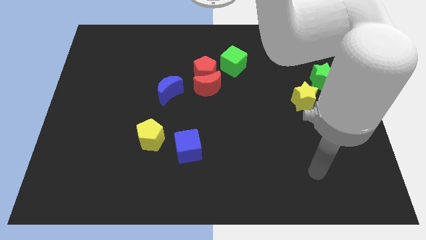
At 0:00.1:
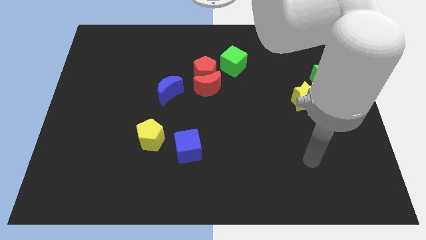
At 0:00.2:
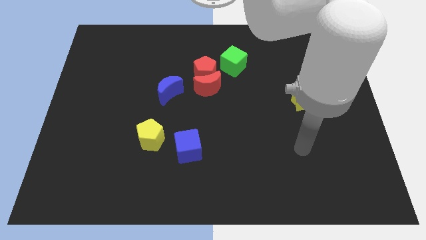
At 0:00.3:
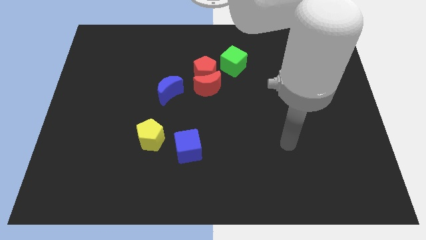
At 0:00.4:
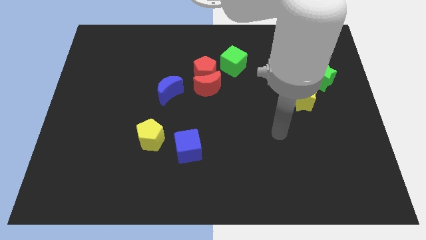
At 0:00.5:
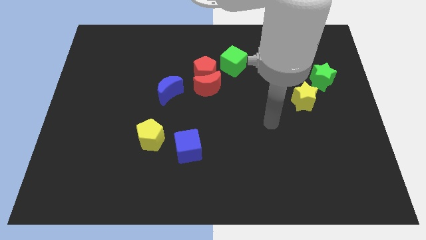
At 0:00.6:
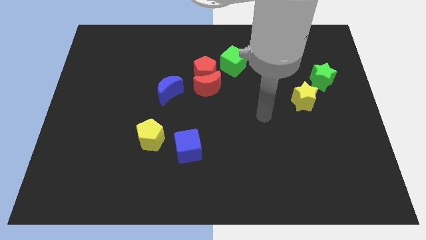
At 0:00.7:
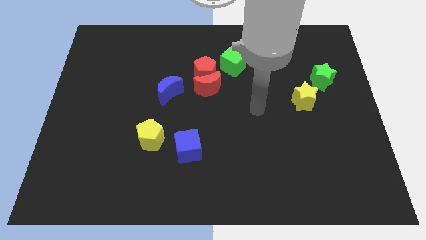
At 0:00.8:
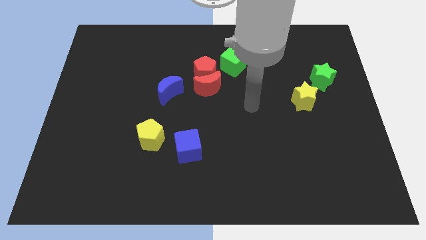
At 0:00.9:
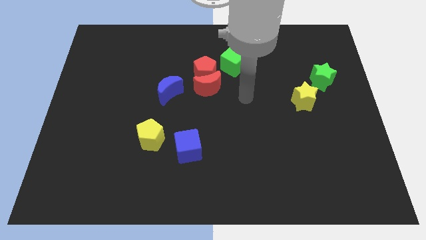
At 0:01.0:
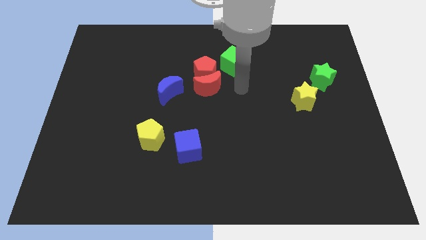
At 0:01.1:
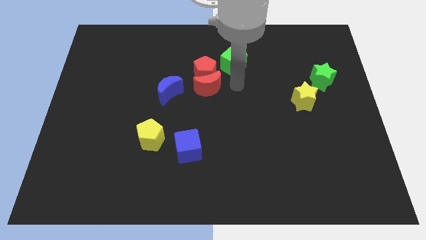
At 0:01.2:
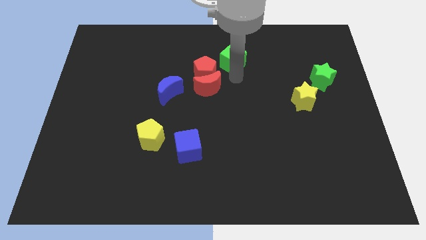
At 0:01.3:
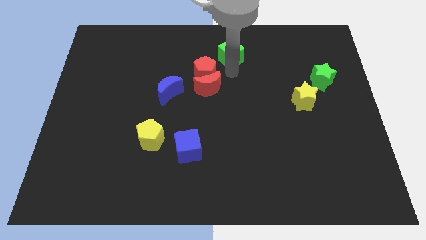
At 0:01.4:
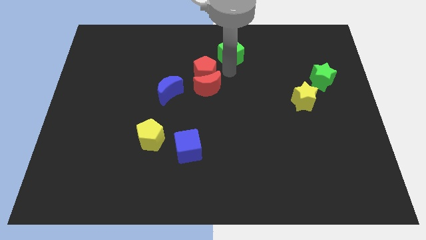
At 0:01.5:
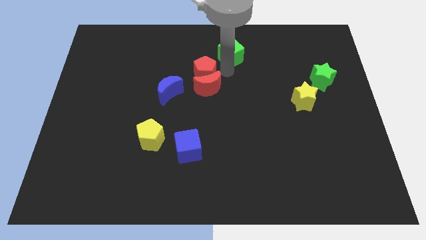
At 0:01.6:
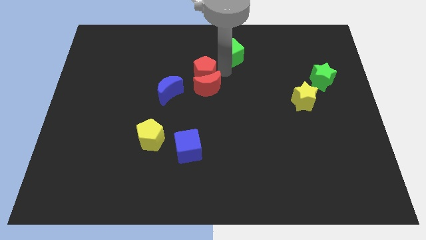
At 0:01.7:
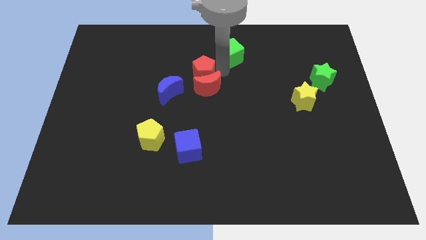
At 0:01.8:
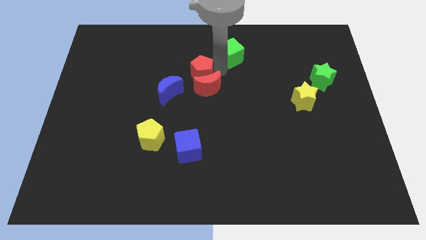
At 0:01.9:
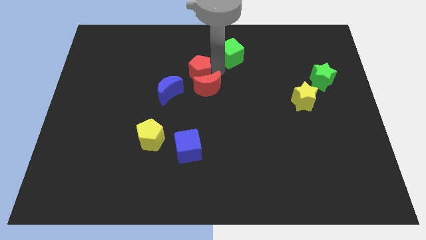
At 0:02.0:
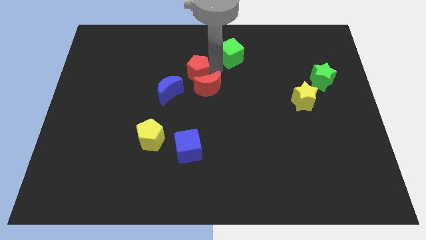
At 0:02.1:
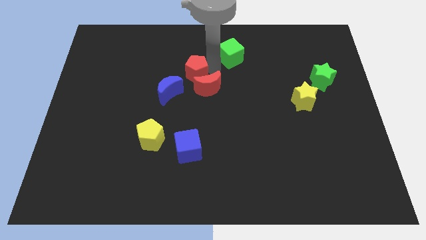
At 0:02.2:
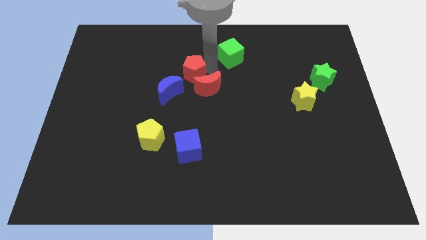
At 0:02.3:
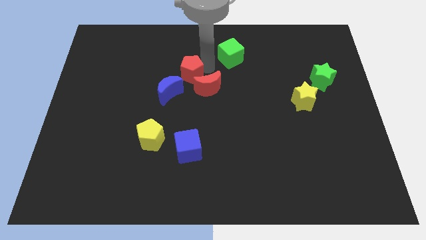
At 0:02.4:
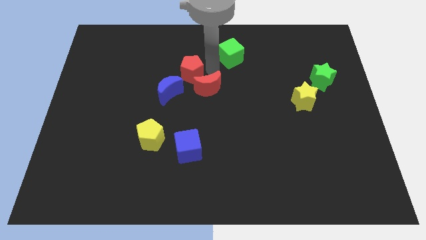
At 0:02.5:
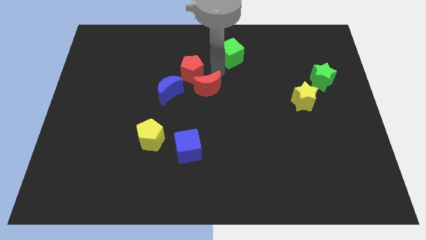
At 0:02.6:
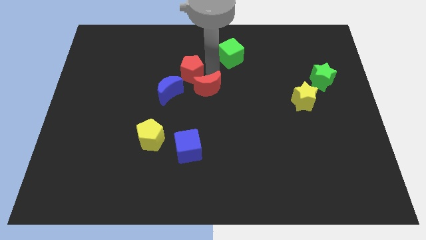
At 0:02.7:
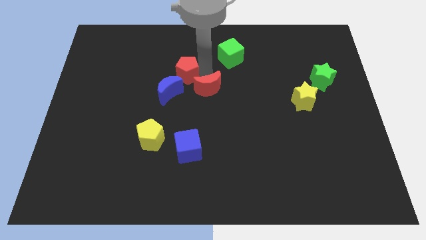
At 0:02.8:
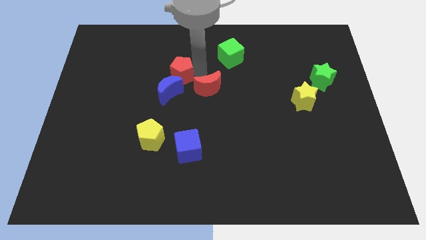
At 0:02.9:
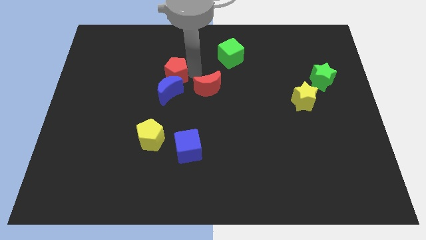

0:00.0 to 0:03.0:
pull the red pentagon apart from the red moon and green cube

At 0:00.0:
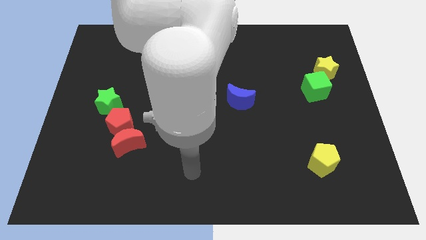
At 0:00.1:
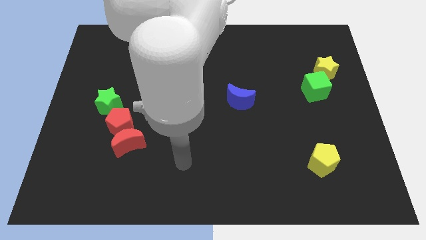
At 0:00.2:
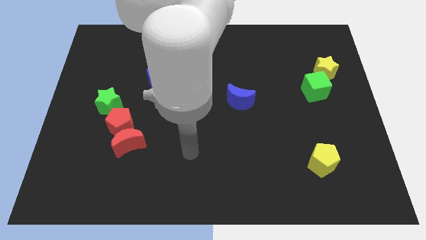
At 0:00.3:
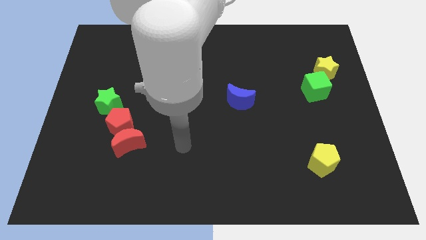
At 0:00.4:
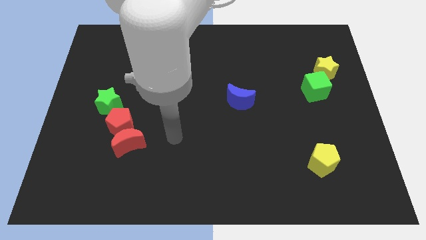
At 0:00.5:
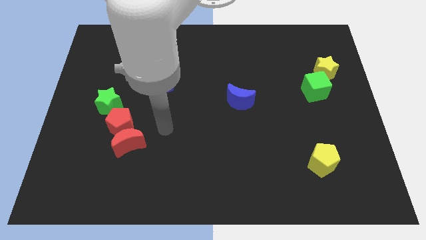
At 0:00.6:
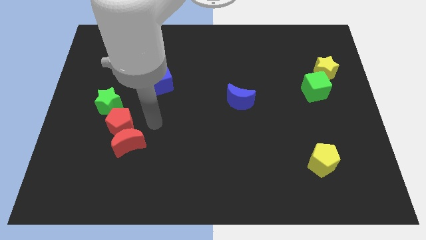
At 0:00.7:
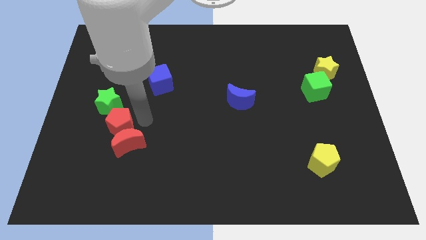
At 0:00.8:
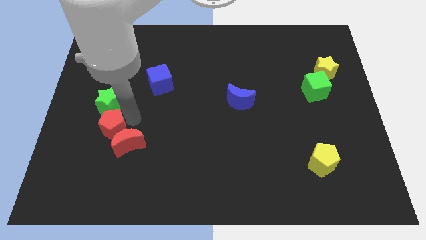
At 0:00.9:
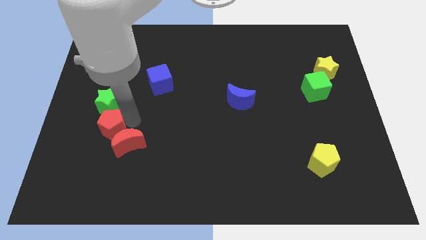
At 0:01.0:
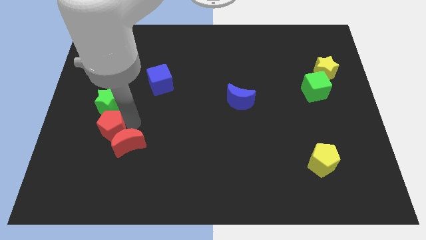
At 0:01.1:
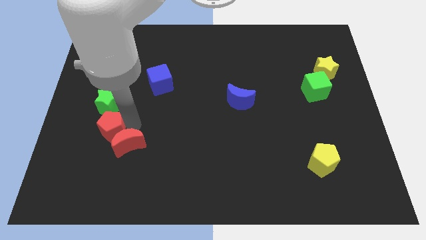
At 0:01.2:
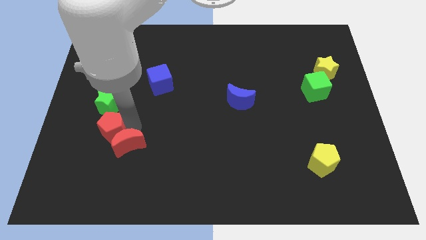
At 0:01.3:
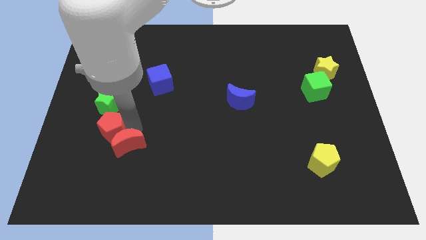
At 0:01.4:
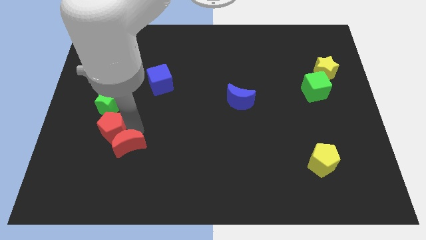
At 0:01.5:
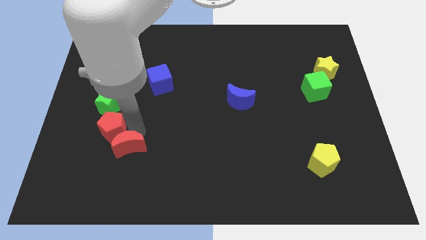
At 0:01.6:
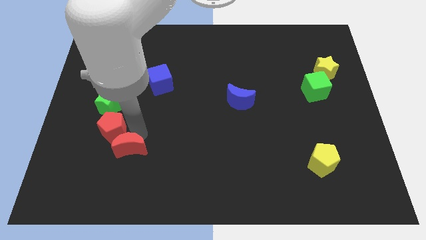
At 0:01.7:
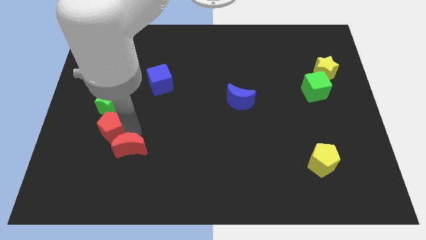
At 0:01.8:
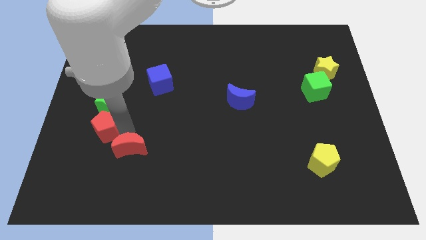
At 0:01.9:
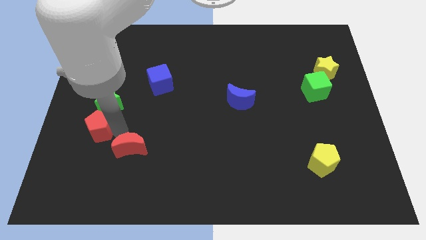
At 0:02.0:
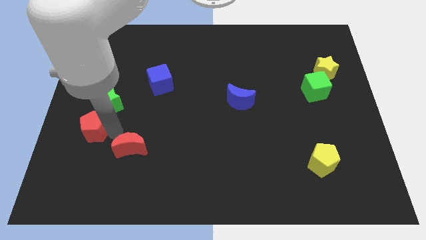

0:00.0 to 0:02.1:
separate the red moon from the red pentagon

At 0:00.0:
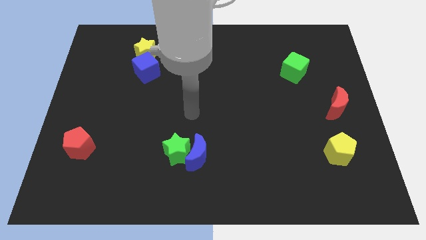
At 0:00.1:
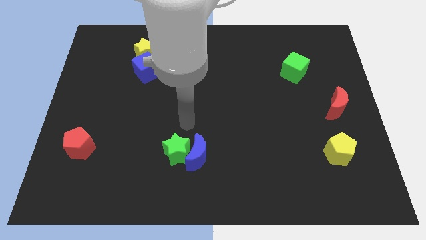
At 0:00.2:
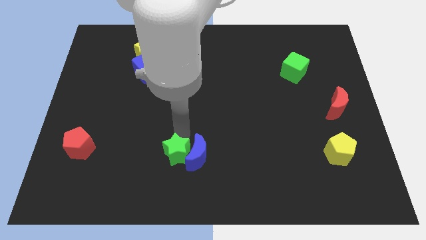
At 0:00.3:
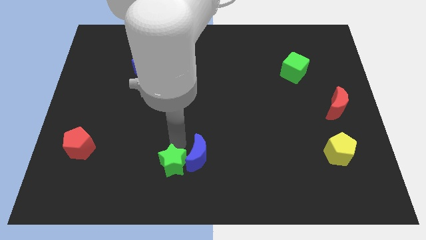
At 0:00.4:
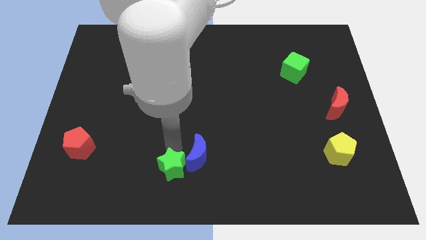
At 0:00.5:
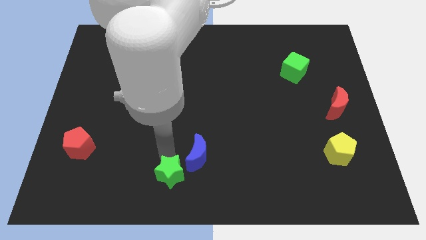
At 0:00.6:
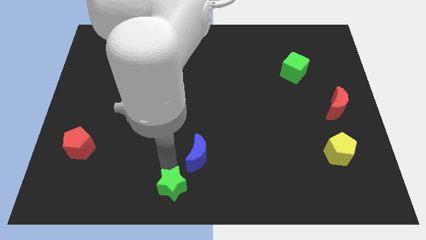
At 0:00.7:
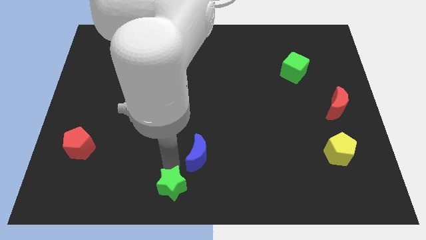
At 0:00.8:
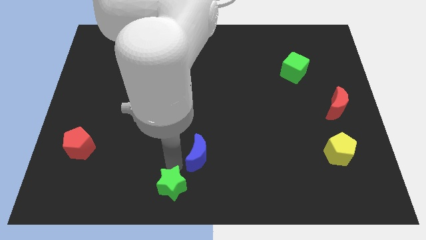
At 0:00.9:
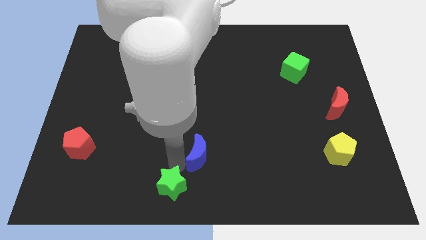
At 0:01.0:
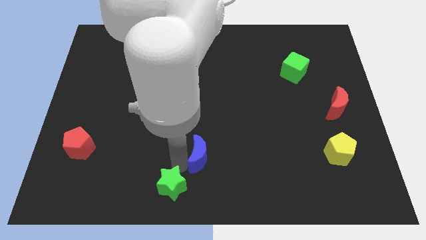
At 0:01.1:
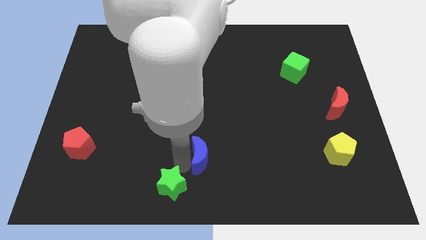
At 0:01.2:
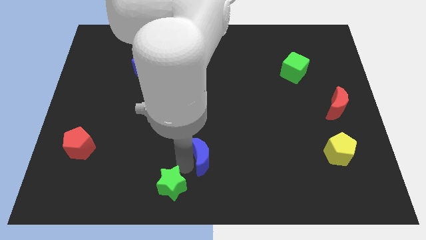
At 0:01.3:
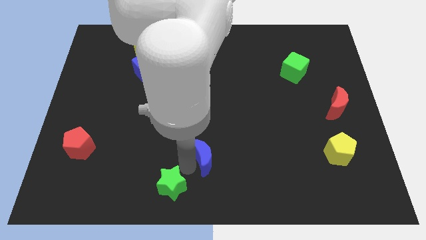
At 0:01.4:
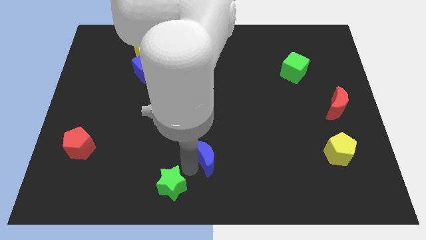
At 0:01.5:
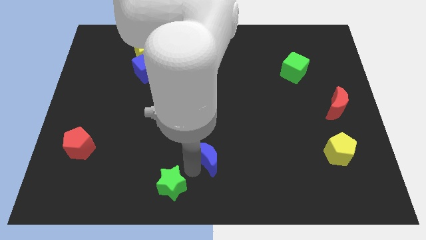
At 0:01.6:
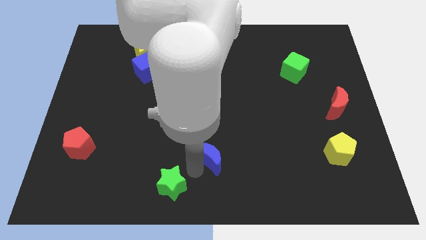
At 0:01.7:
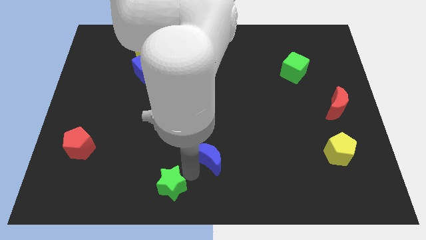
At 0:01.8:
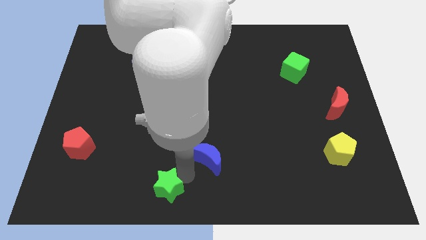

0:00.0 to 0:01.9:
separate the blue moon from the green star

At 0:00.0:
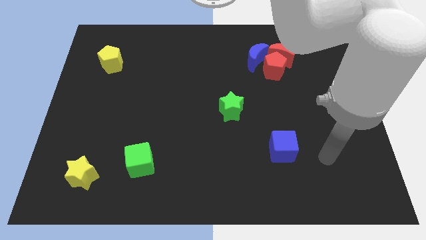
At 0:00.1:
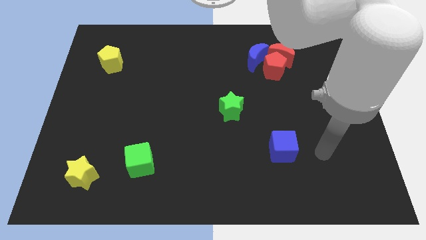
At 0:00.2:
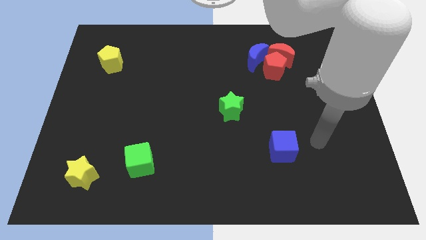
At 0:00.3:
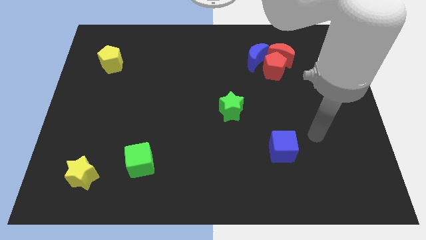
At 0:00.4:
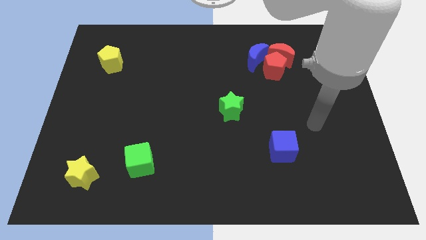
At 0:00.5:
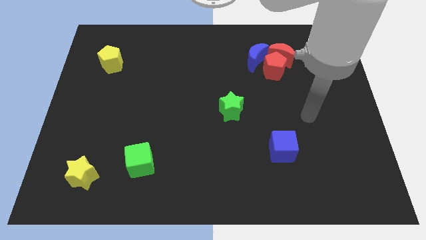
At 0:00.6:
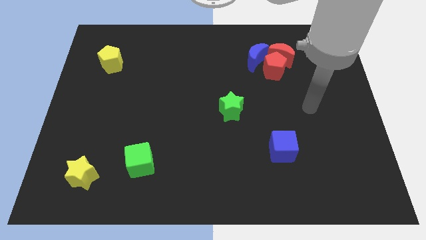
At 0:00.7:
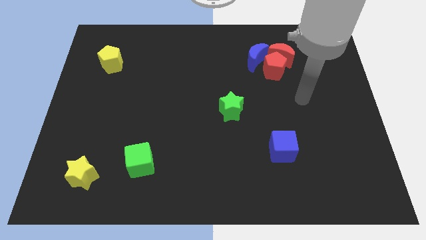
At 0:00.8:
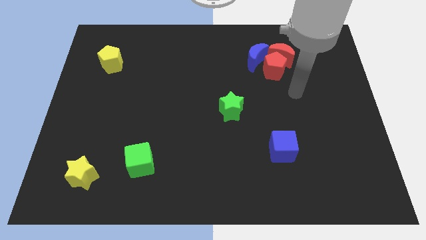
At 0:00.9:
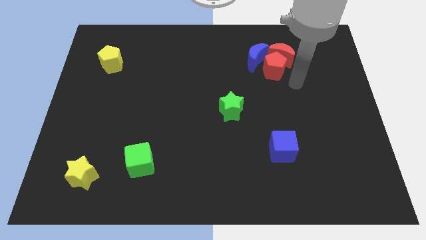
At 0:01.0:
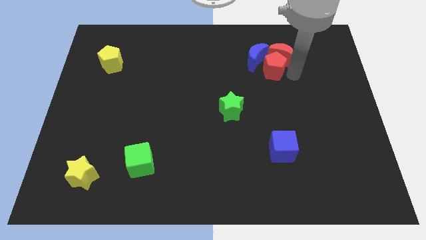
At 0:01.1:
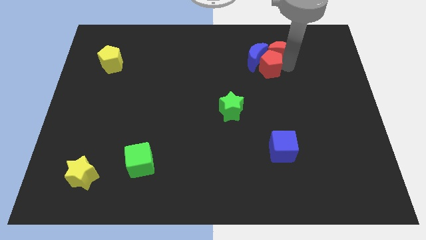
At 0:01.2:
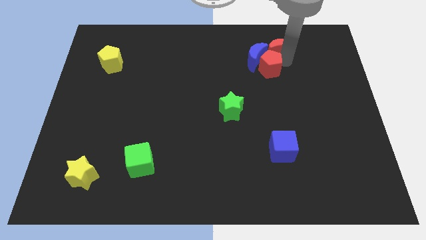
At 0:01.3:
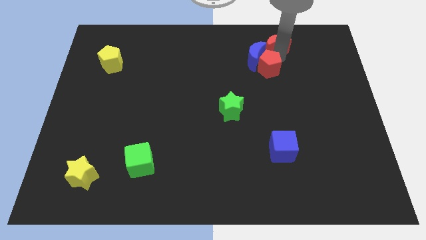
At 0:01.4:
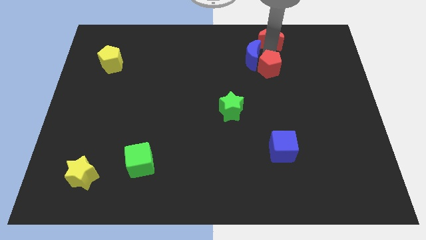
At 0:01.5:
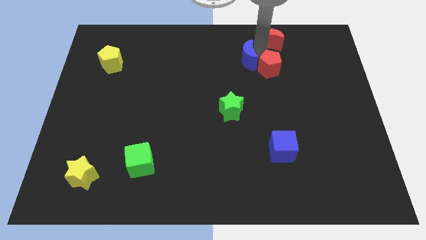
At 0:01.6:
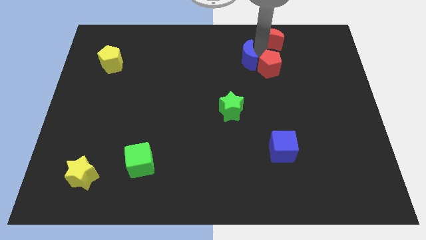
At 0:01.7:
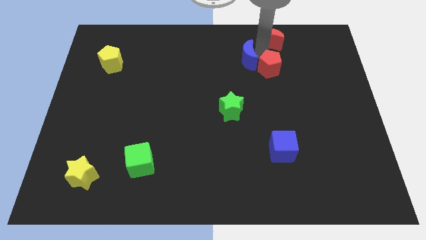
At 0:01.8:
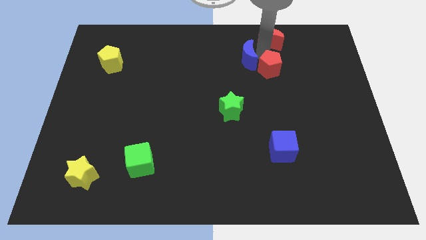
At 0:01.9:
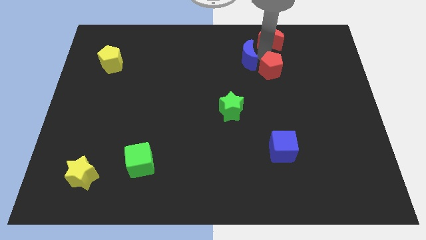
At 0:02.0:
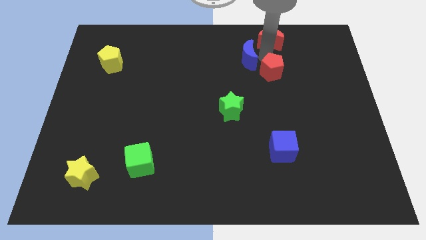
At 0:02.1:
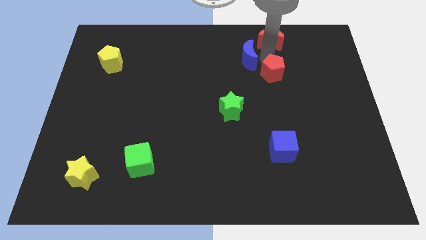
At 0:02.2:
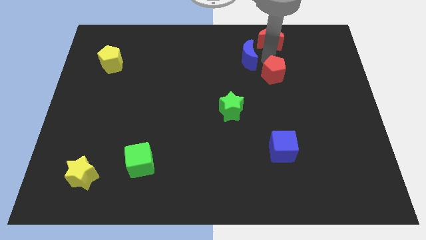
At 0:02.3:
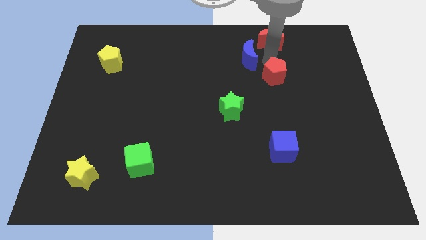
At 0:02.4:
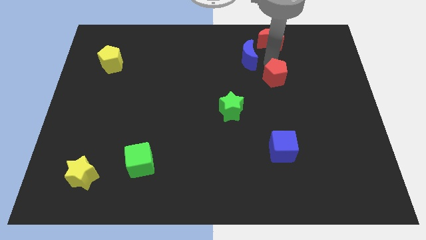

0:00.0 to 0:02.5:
separate the red pentagon from the red moon and blue moon
